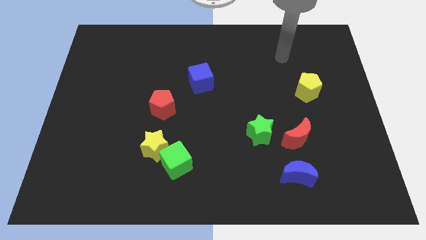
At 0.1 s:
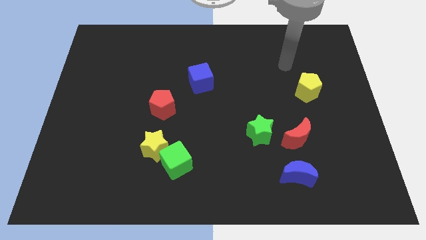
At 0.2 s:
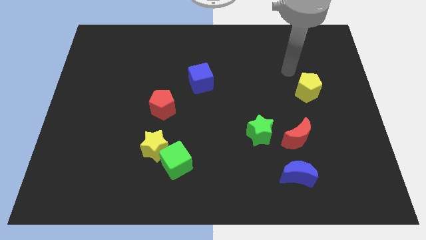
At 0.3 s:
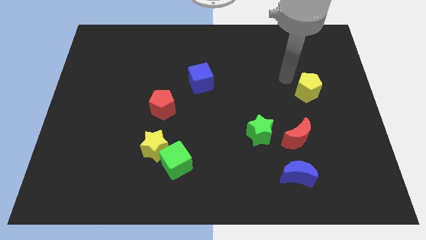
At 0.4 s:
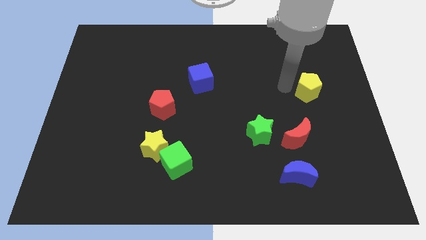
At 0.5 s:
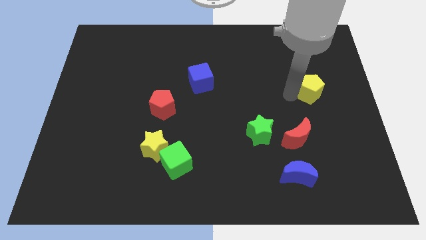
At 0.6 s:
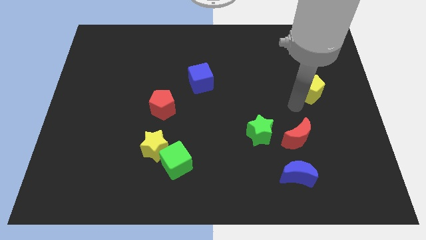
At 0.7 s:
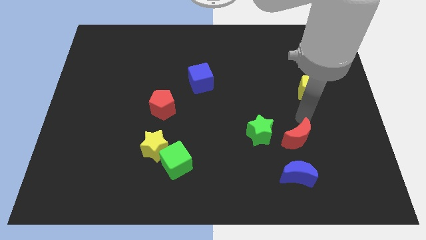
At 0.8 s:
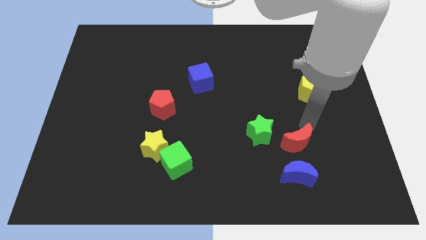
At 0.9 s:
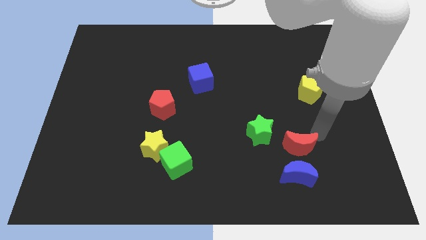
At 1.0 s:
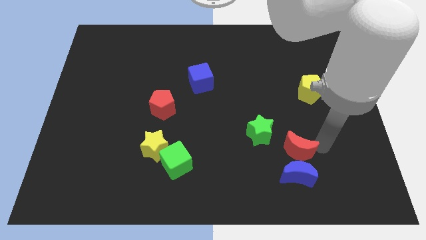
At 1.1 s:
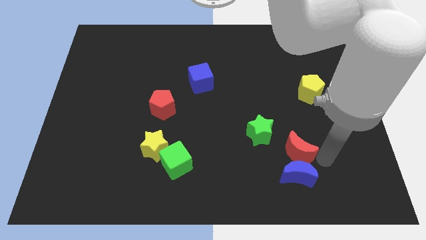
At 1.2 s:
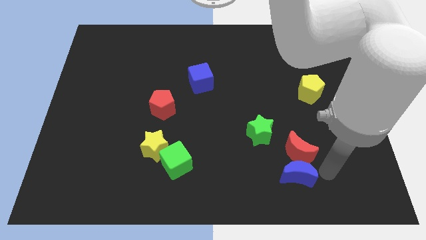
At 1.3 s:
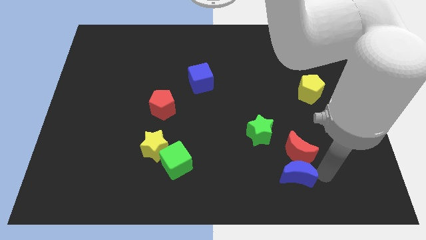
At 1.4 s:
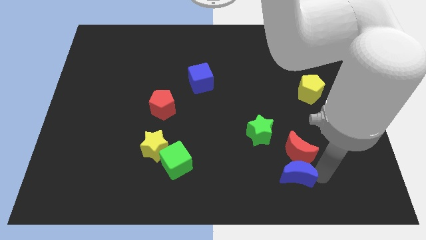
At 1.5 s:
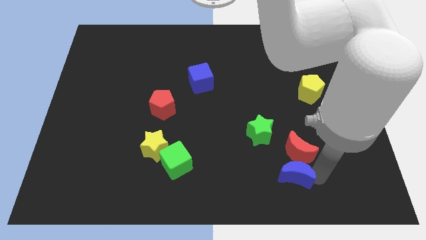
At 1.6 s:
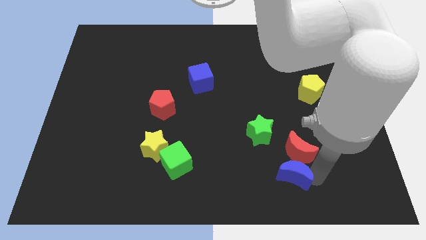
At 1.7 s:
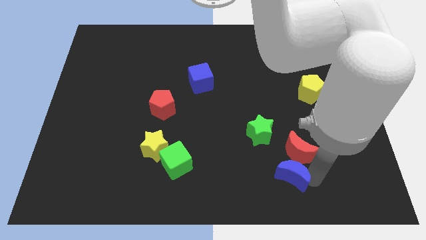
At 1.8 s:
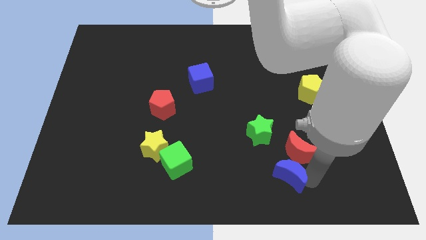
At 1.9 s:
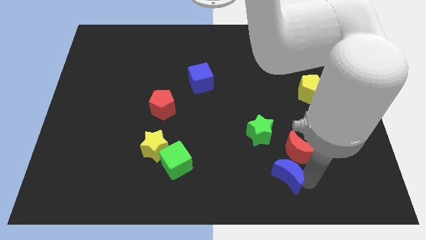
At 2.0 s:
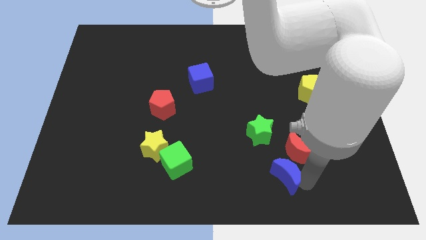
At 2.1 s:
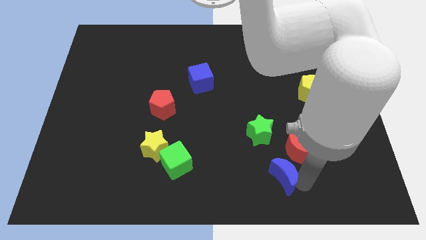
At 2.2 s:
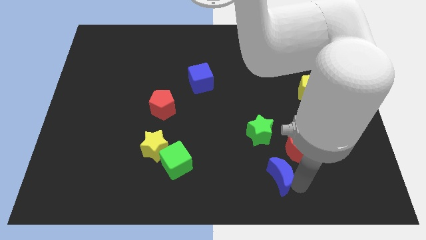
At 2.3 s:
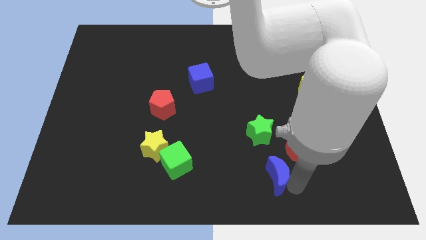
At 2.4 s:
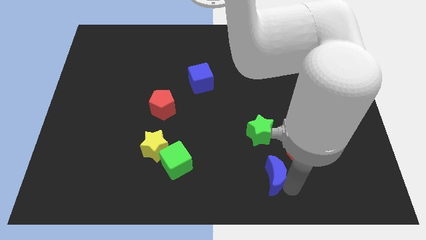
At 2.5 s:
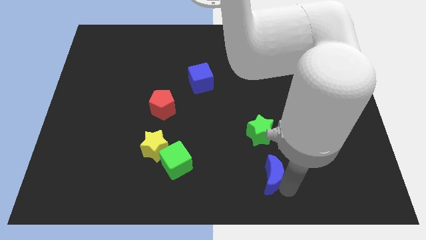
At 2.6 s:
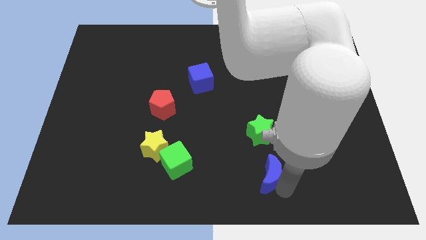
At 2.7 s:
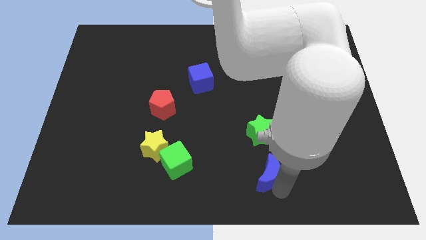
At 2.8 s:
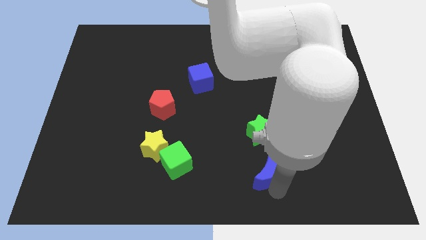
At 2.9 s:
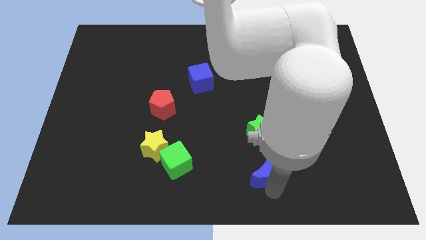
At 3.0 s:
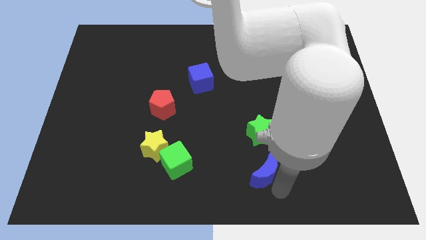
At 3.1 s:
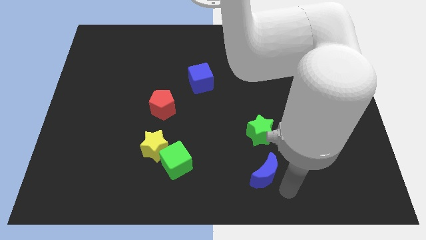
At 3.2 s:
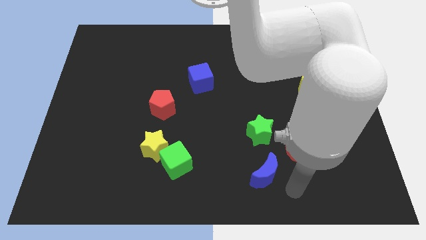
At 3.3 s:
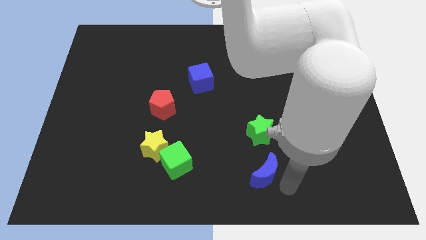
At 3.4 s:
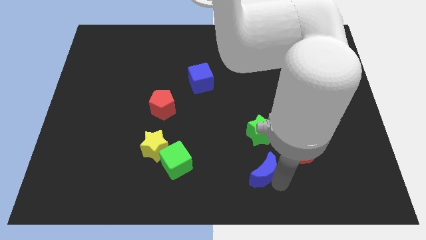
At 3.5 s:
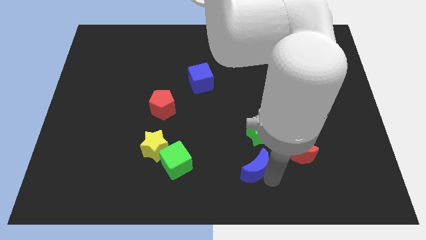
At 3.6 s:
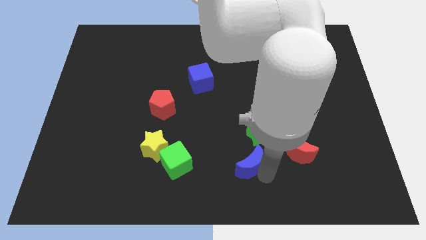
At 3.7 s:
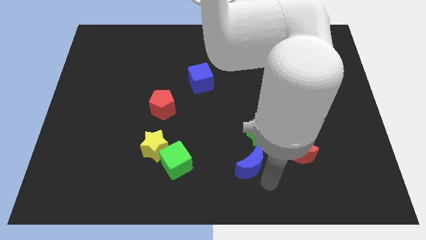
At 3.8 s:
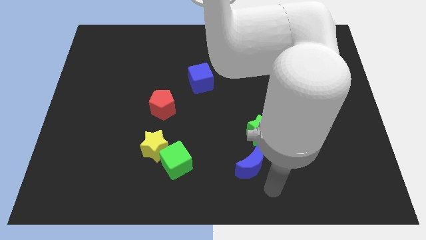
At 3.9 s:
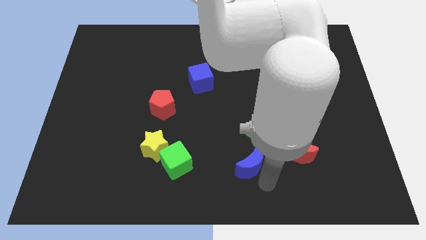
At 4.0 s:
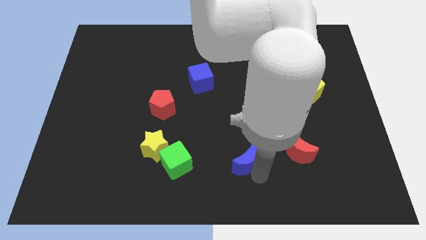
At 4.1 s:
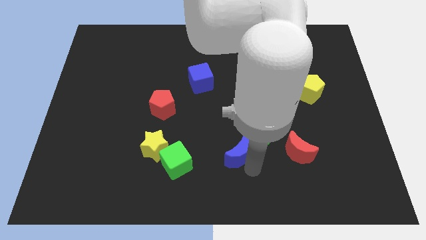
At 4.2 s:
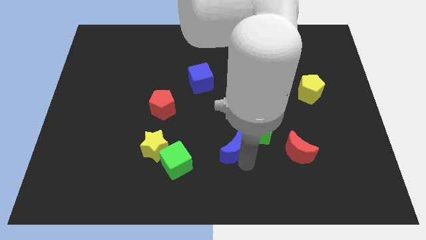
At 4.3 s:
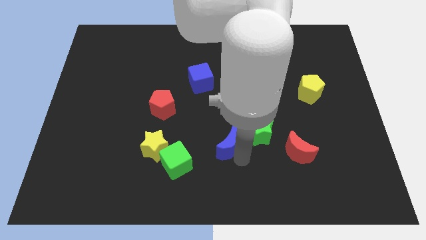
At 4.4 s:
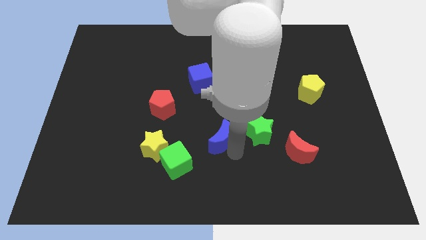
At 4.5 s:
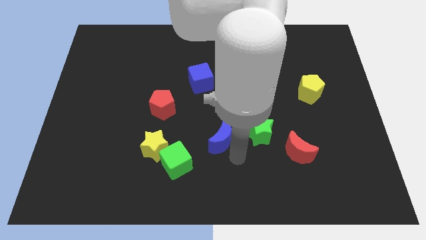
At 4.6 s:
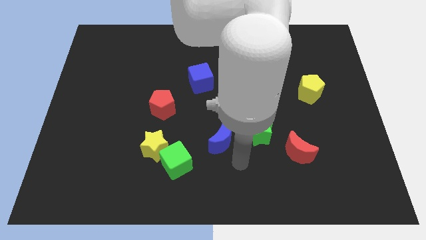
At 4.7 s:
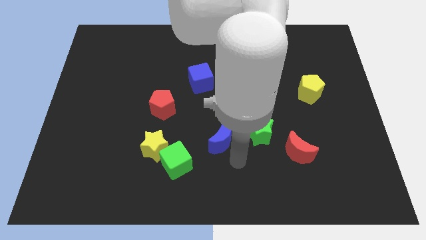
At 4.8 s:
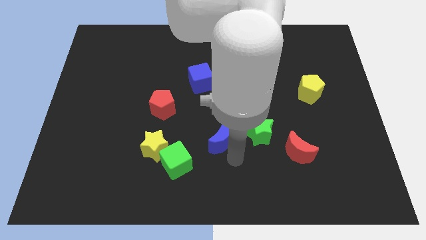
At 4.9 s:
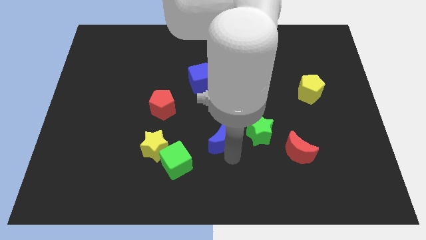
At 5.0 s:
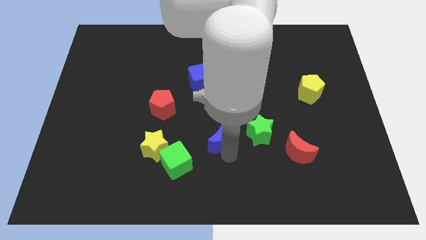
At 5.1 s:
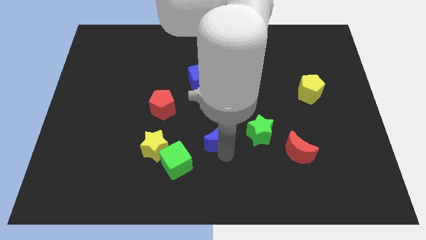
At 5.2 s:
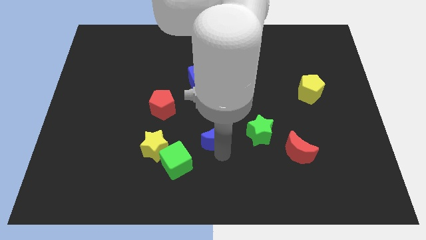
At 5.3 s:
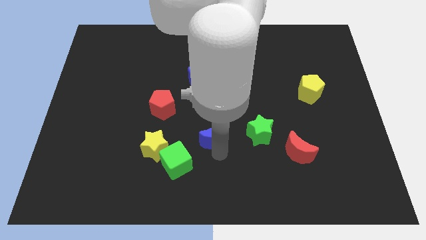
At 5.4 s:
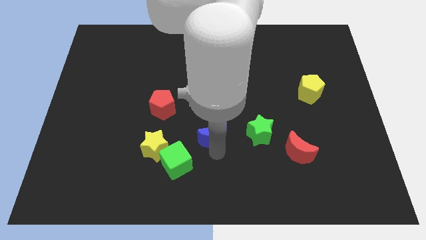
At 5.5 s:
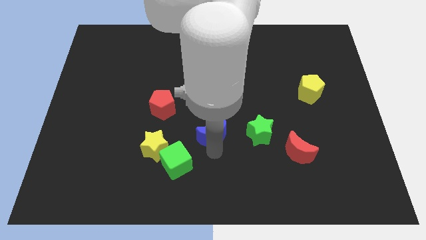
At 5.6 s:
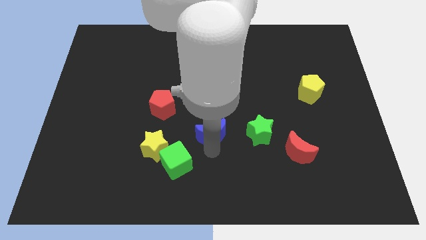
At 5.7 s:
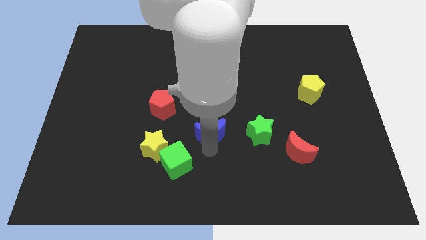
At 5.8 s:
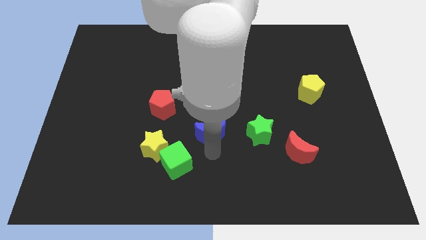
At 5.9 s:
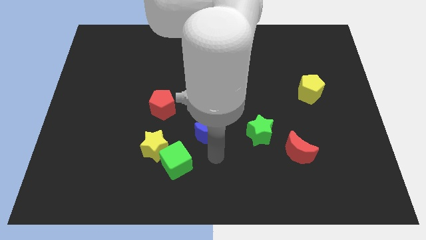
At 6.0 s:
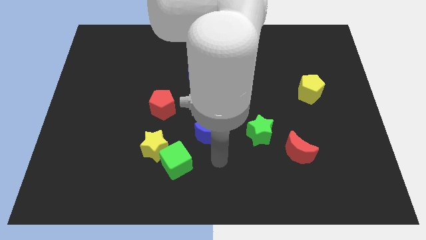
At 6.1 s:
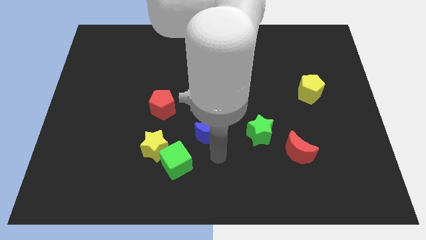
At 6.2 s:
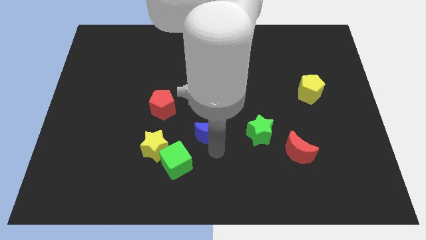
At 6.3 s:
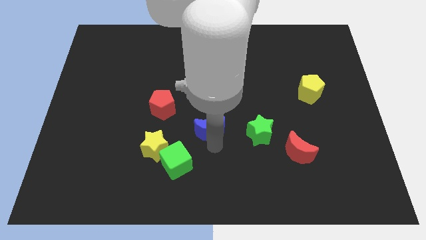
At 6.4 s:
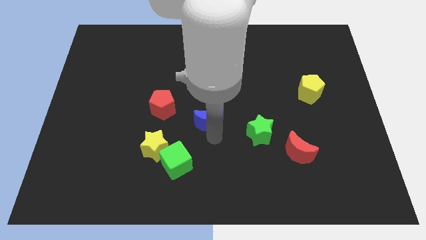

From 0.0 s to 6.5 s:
slide the blue moon up and then to the left

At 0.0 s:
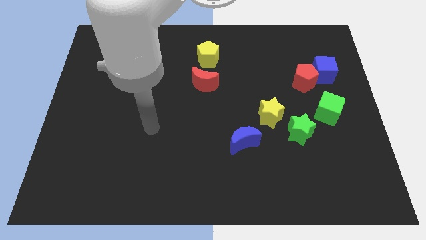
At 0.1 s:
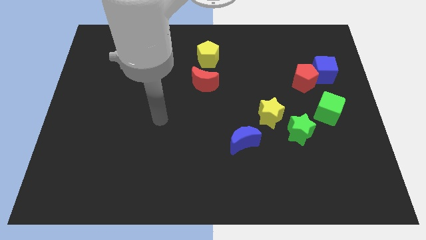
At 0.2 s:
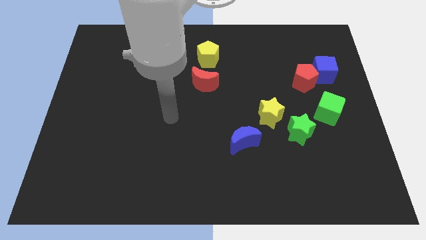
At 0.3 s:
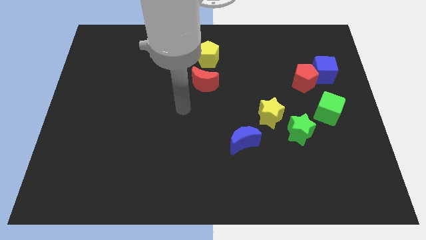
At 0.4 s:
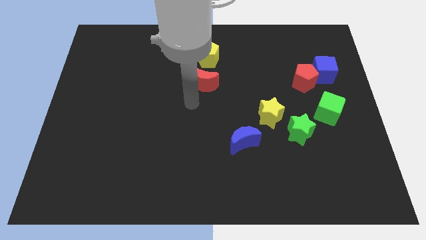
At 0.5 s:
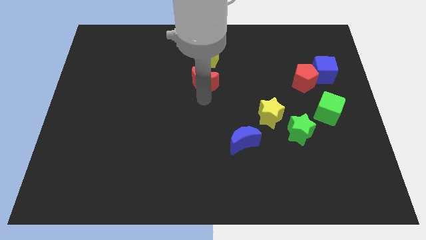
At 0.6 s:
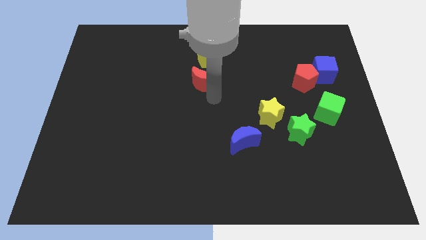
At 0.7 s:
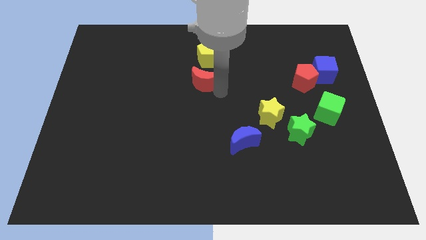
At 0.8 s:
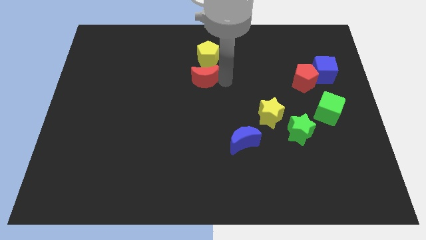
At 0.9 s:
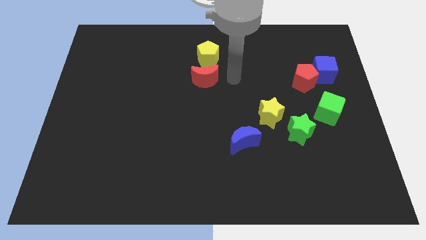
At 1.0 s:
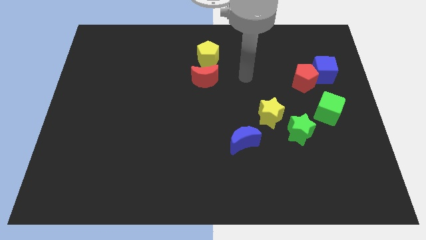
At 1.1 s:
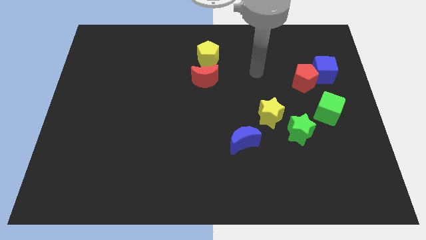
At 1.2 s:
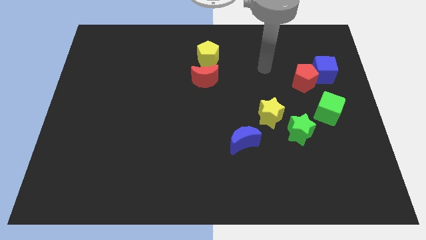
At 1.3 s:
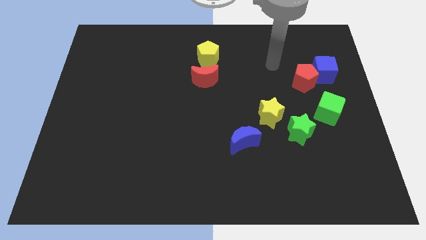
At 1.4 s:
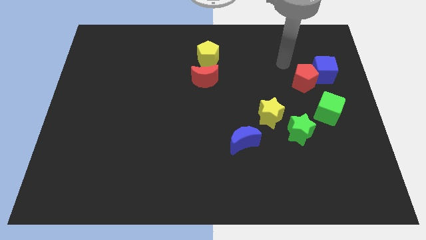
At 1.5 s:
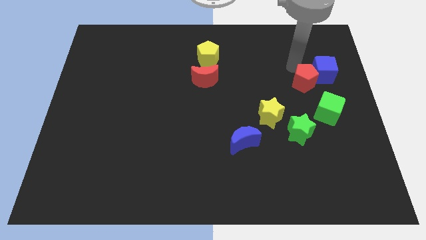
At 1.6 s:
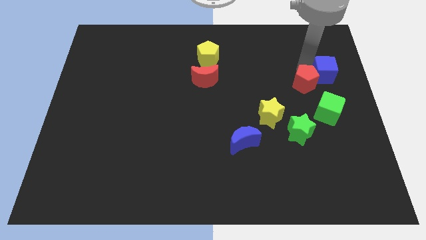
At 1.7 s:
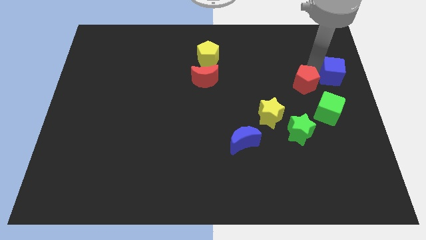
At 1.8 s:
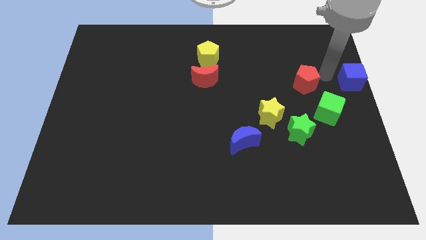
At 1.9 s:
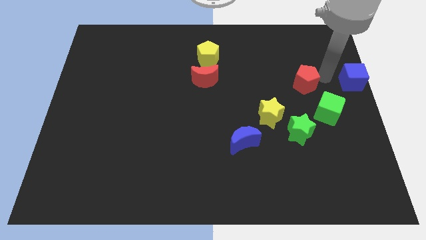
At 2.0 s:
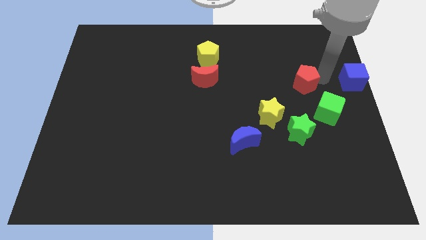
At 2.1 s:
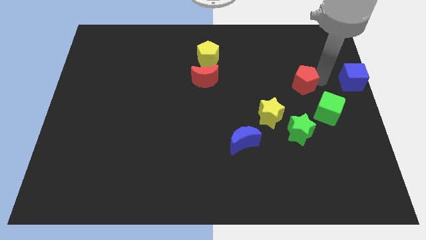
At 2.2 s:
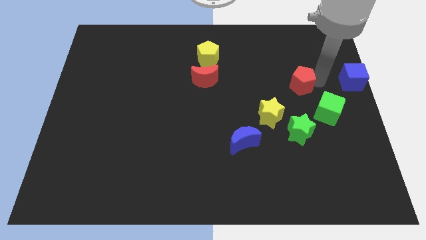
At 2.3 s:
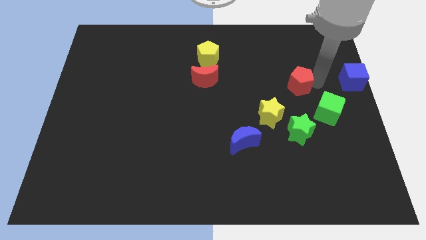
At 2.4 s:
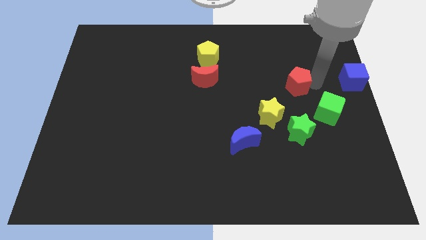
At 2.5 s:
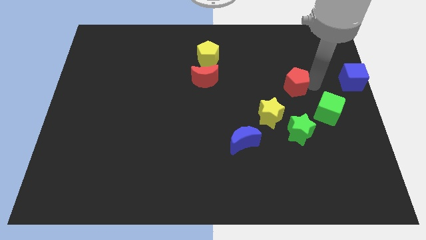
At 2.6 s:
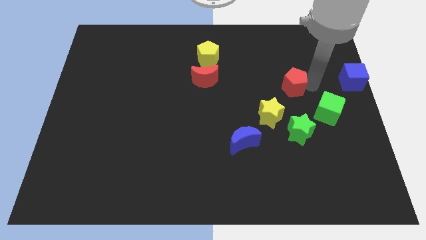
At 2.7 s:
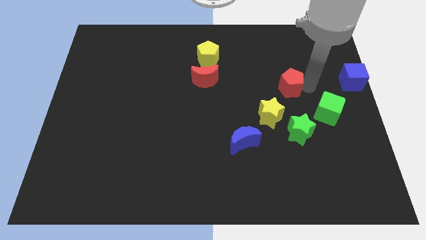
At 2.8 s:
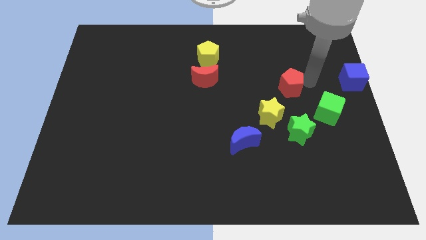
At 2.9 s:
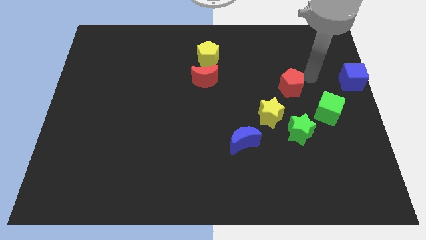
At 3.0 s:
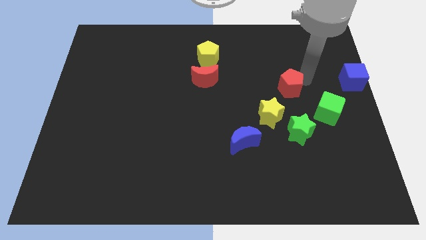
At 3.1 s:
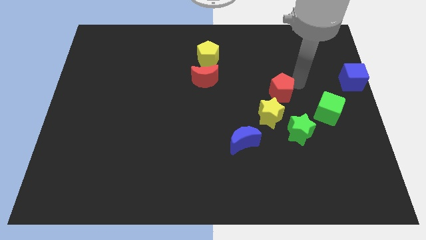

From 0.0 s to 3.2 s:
push the red pentagon down and then left a little bit
